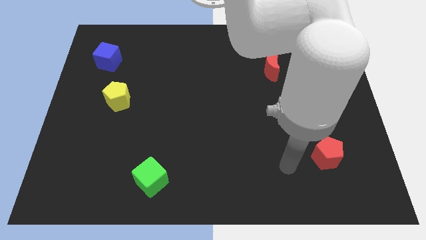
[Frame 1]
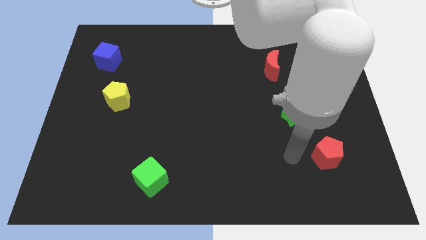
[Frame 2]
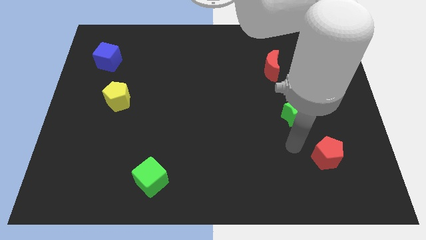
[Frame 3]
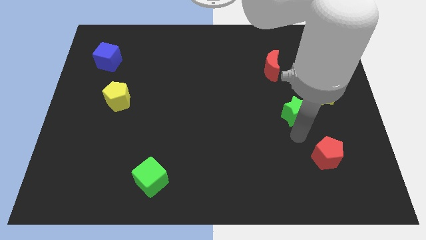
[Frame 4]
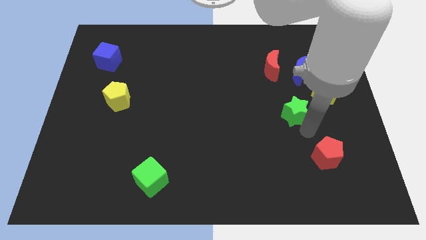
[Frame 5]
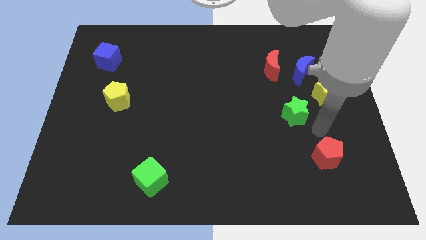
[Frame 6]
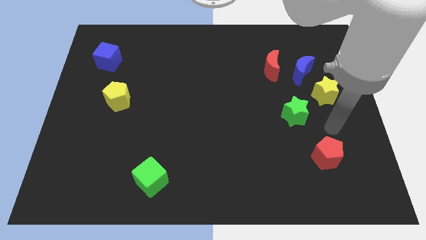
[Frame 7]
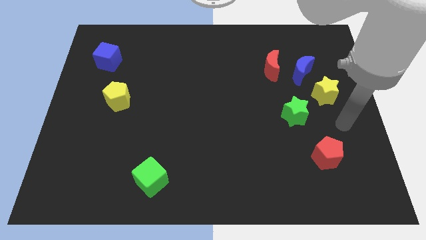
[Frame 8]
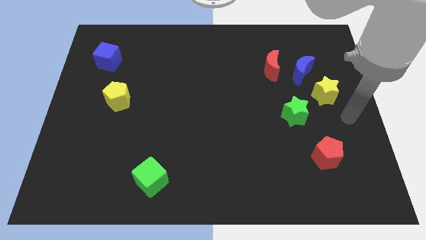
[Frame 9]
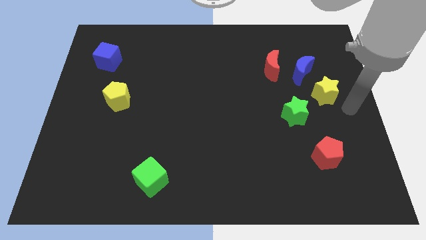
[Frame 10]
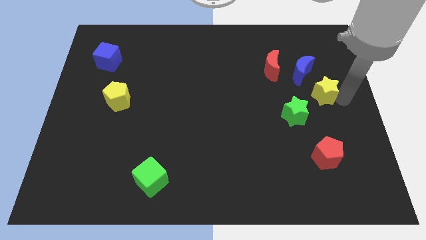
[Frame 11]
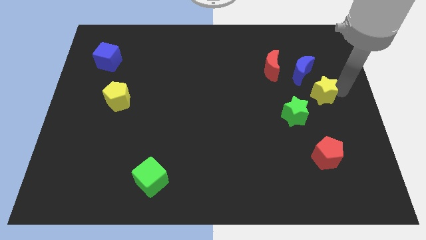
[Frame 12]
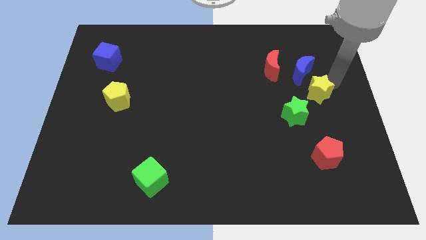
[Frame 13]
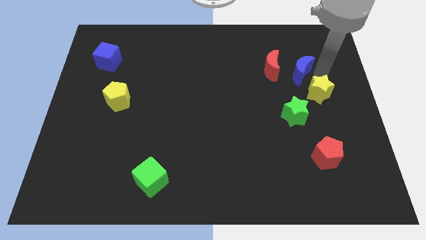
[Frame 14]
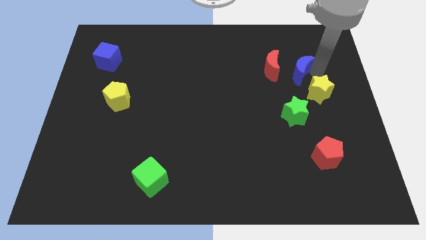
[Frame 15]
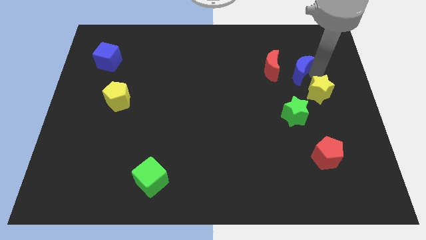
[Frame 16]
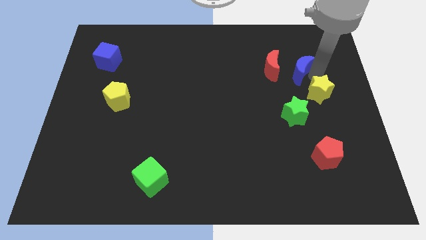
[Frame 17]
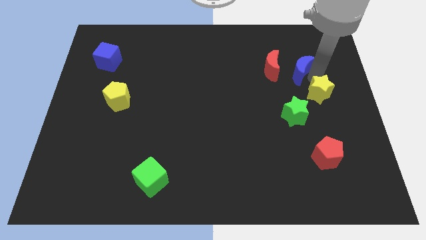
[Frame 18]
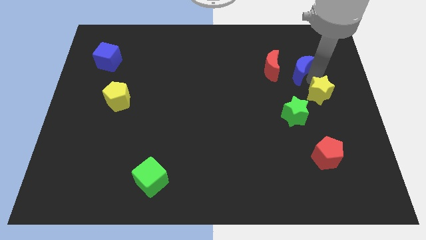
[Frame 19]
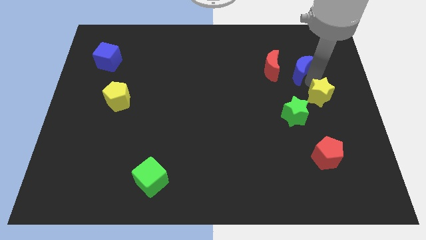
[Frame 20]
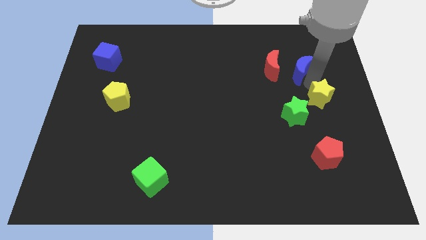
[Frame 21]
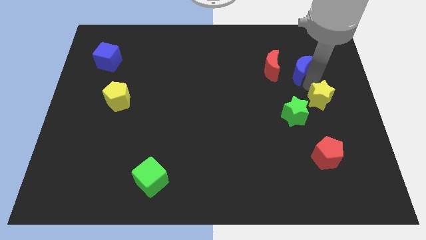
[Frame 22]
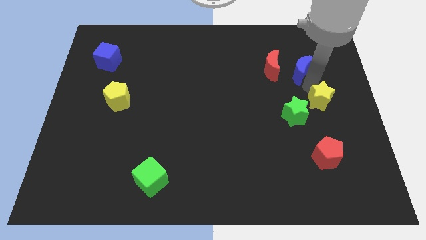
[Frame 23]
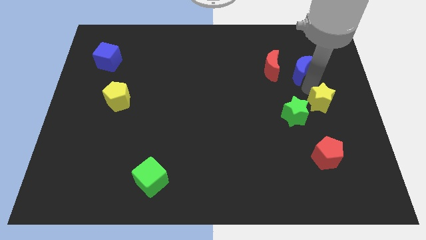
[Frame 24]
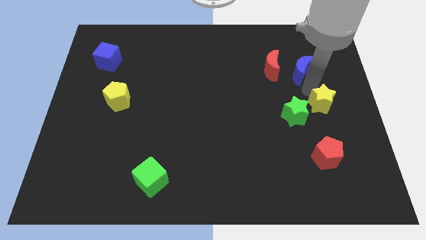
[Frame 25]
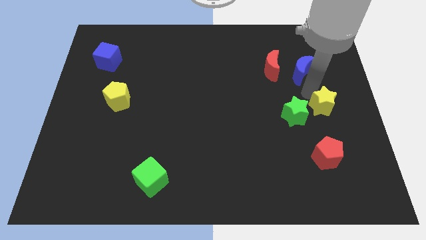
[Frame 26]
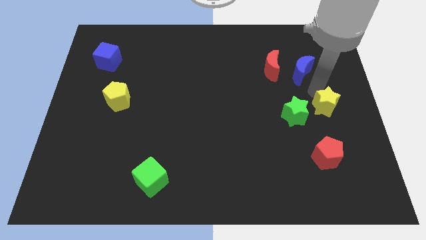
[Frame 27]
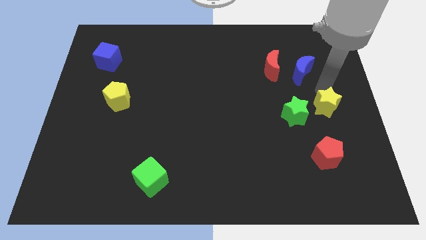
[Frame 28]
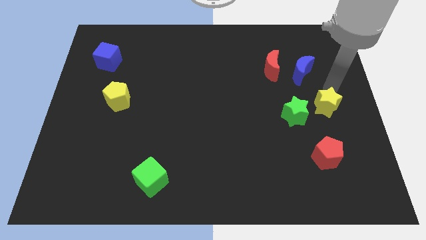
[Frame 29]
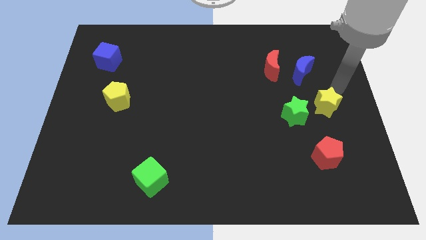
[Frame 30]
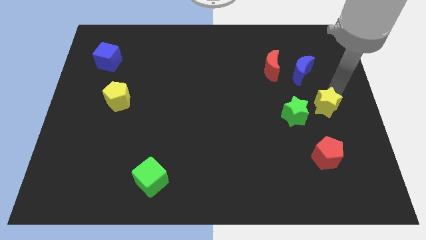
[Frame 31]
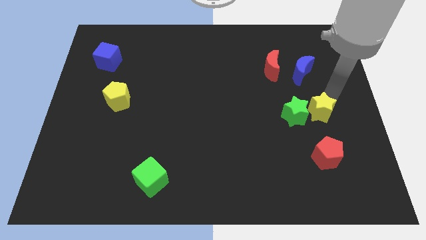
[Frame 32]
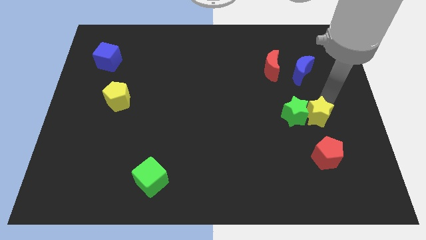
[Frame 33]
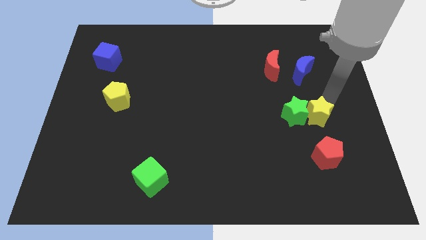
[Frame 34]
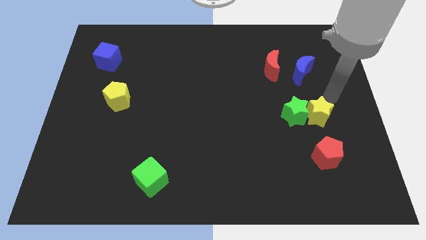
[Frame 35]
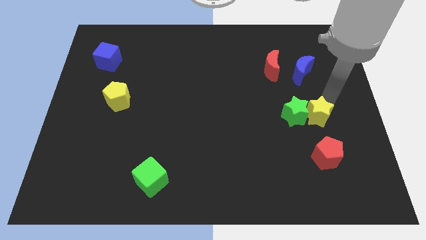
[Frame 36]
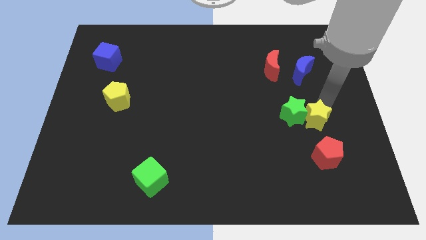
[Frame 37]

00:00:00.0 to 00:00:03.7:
slide the yellow star a little down and left

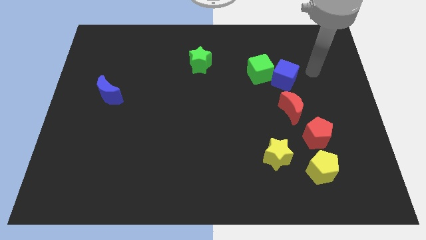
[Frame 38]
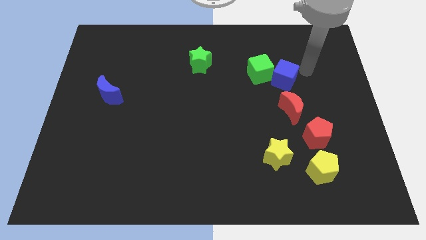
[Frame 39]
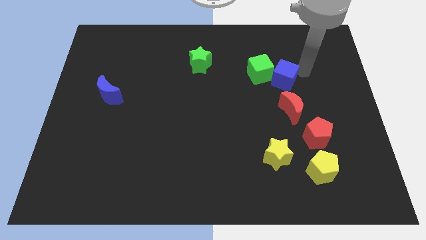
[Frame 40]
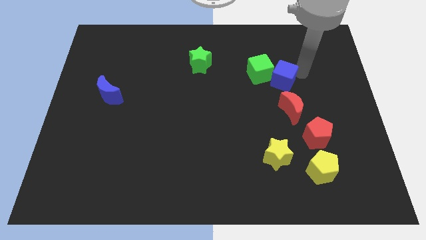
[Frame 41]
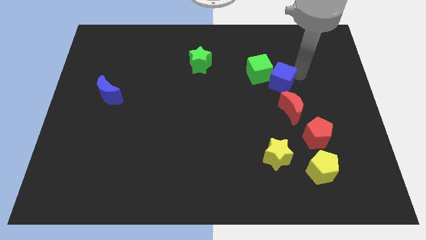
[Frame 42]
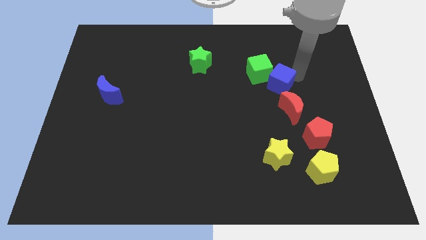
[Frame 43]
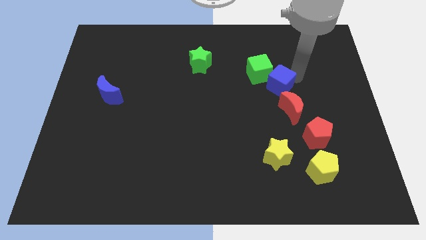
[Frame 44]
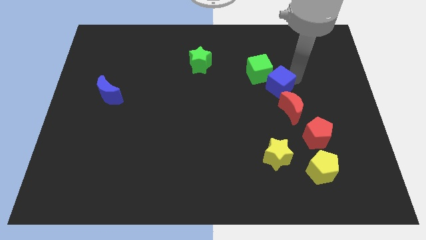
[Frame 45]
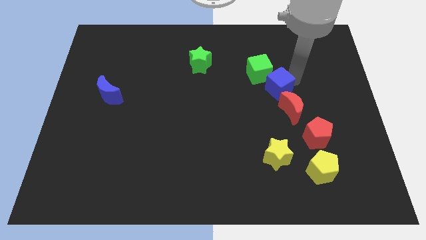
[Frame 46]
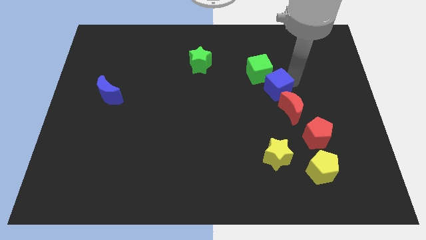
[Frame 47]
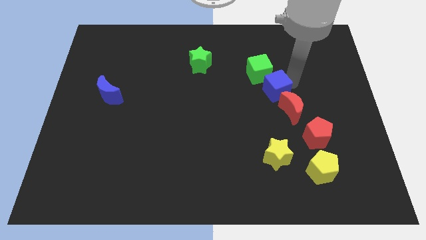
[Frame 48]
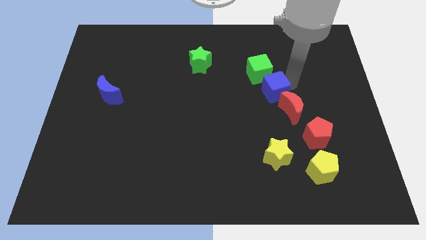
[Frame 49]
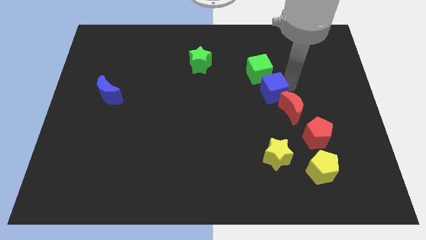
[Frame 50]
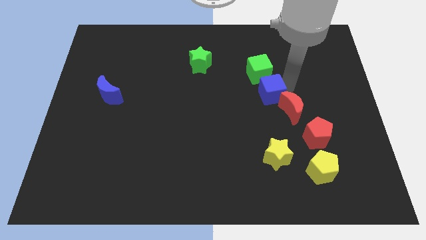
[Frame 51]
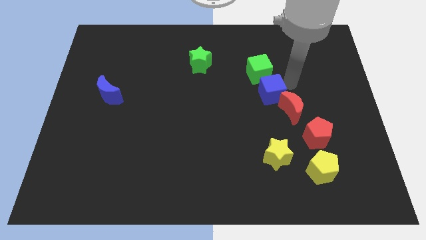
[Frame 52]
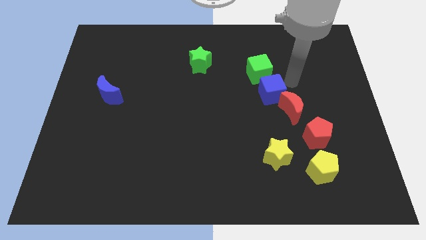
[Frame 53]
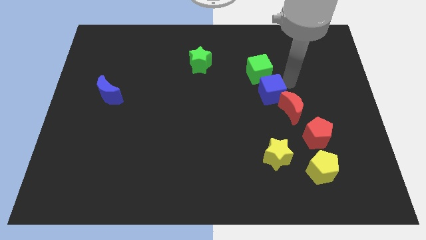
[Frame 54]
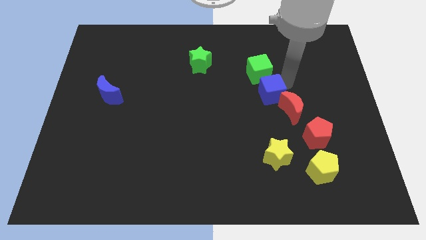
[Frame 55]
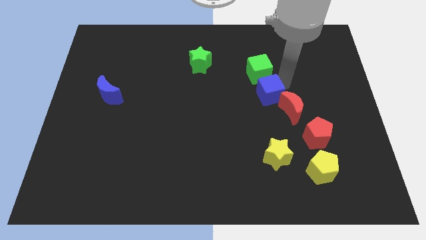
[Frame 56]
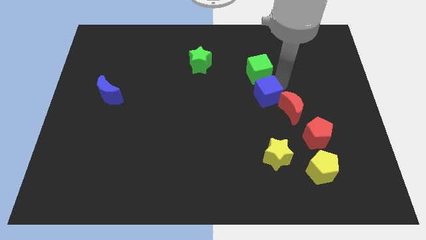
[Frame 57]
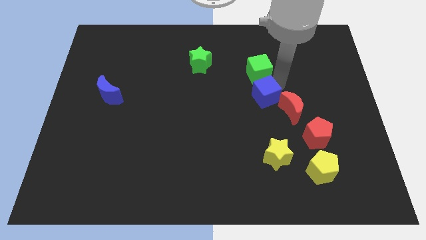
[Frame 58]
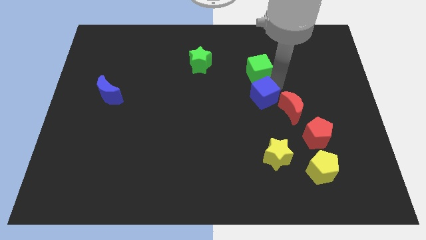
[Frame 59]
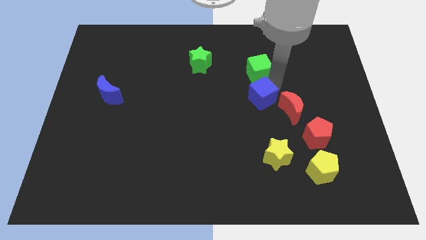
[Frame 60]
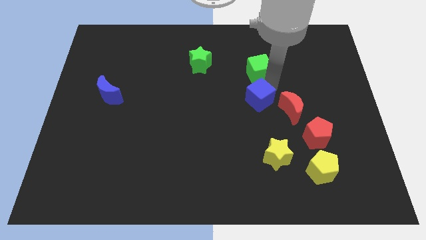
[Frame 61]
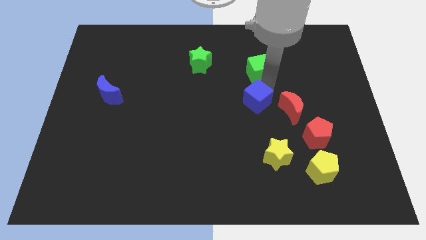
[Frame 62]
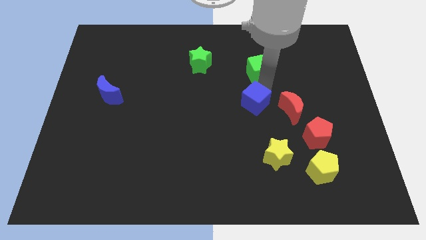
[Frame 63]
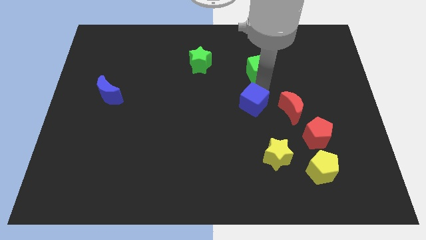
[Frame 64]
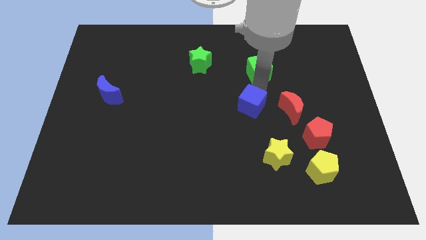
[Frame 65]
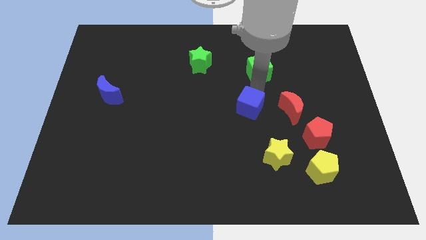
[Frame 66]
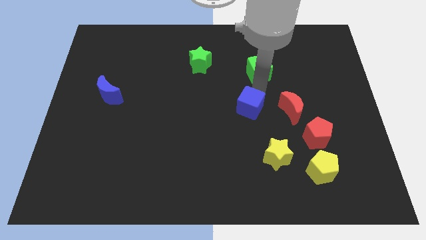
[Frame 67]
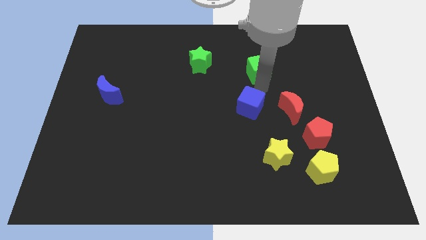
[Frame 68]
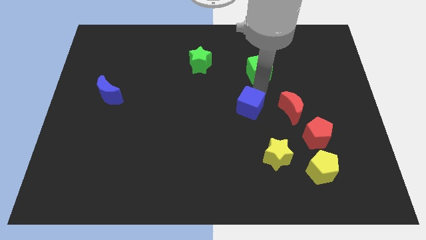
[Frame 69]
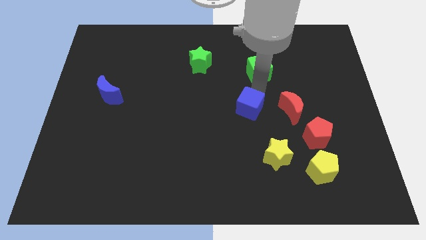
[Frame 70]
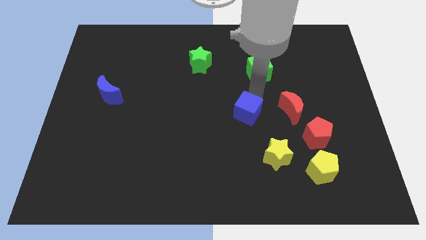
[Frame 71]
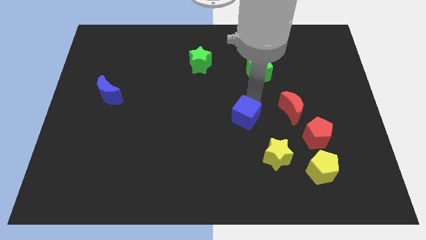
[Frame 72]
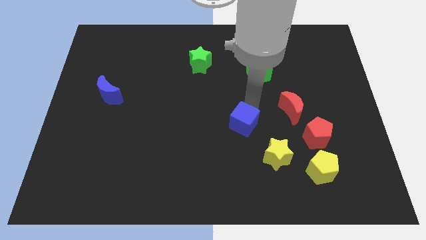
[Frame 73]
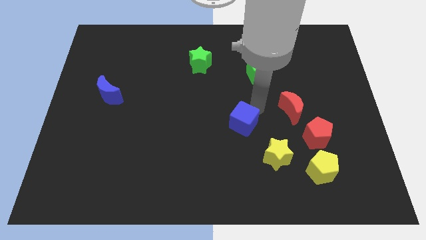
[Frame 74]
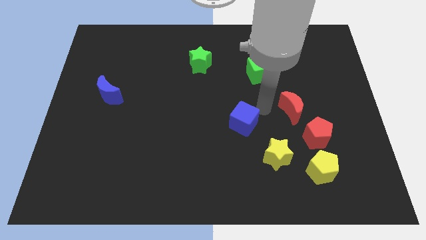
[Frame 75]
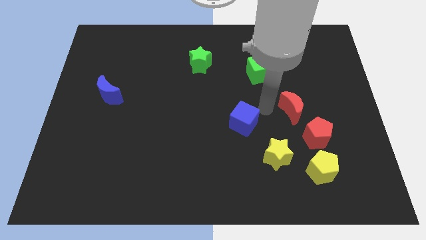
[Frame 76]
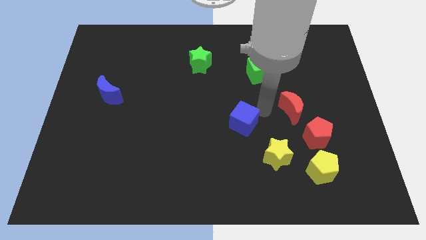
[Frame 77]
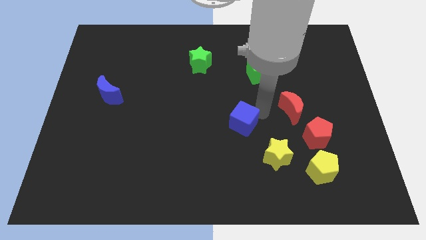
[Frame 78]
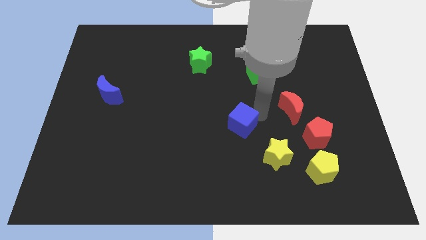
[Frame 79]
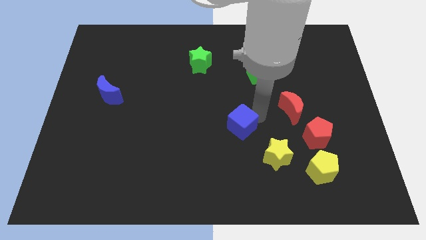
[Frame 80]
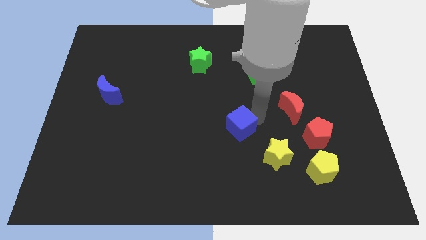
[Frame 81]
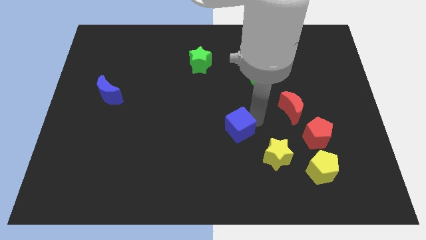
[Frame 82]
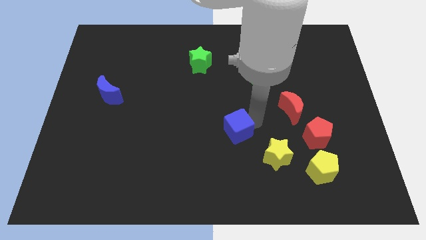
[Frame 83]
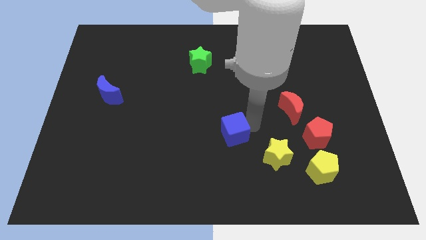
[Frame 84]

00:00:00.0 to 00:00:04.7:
move the blue cube down and left diagonally
